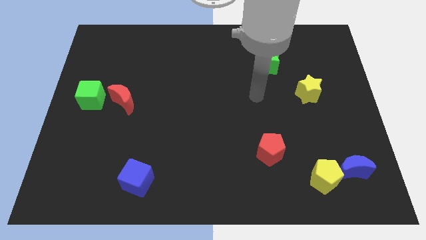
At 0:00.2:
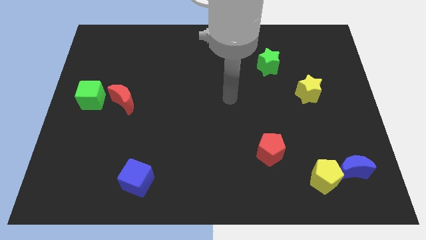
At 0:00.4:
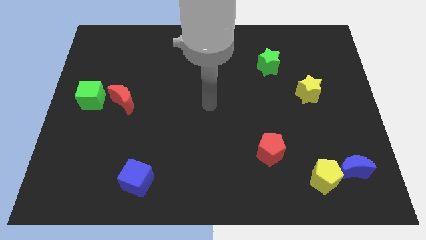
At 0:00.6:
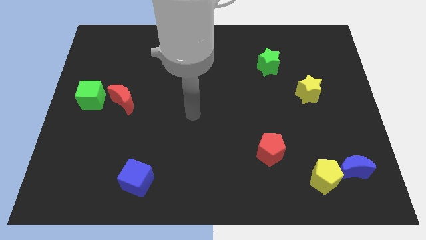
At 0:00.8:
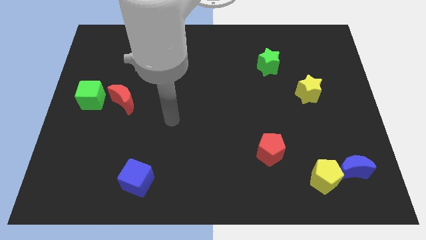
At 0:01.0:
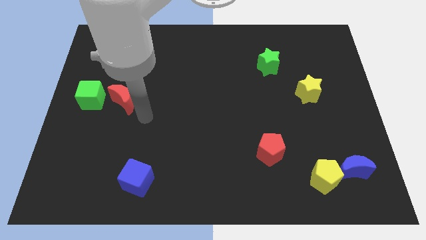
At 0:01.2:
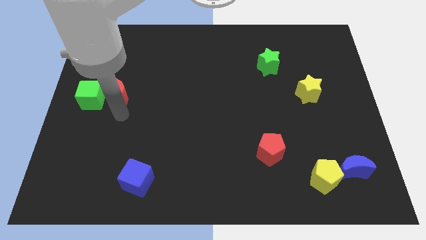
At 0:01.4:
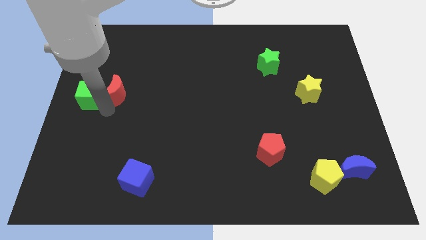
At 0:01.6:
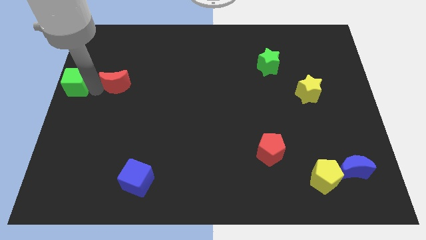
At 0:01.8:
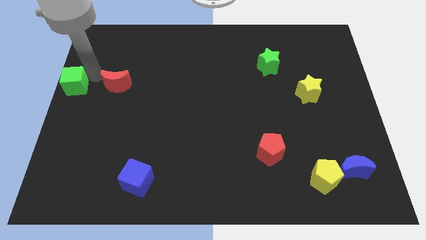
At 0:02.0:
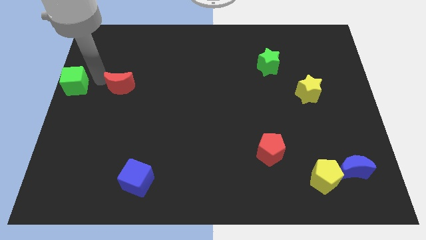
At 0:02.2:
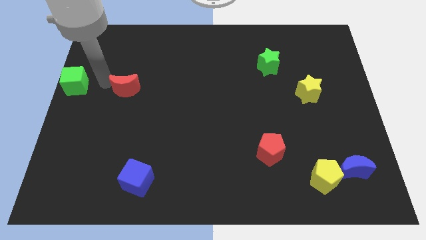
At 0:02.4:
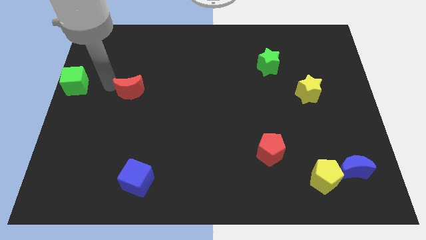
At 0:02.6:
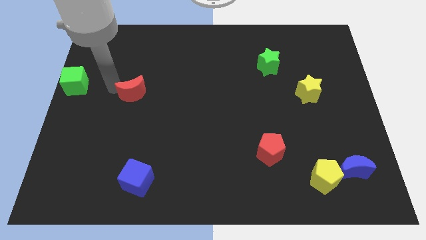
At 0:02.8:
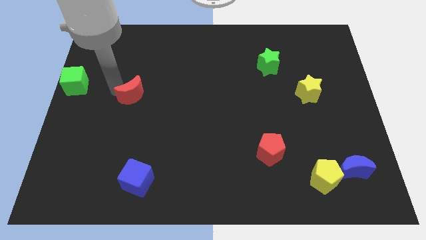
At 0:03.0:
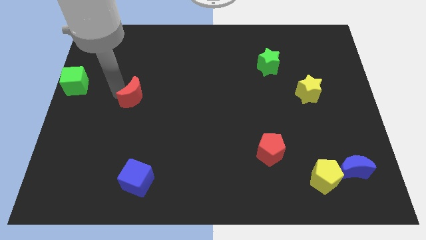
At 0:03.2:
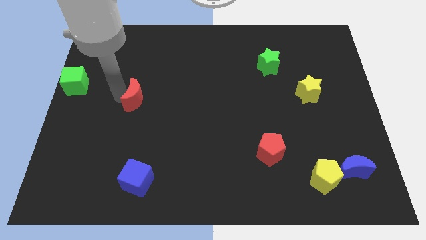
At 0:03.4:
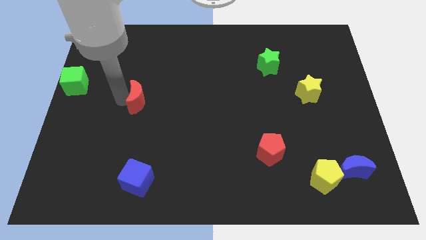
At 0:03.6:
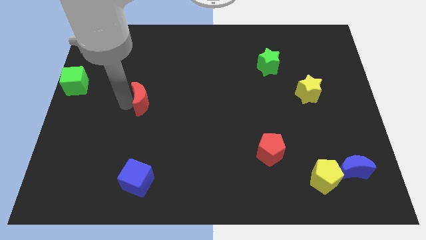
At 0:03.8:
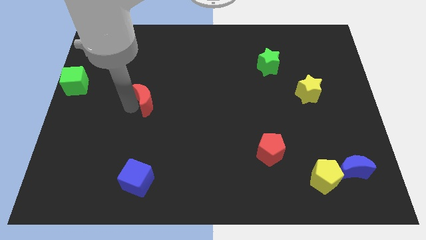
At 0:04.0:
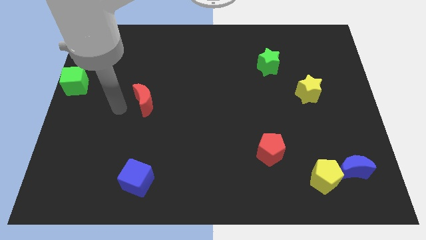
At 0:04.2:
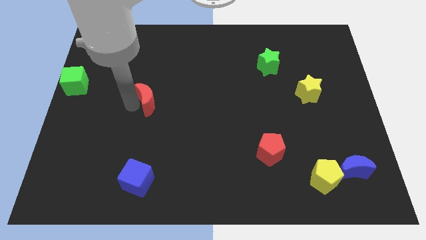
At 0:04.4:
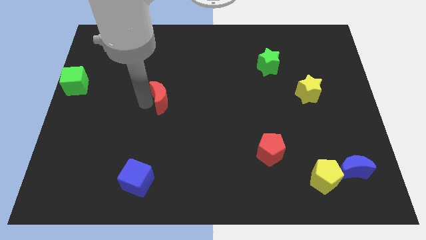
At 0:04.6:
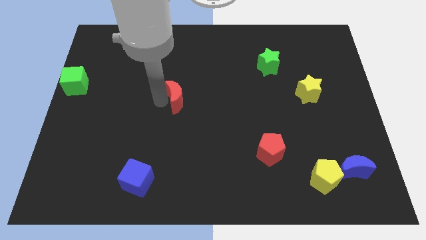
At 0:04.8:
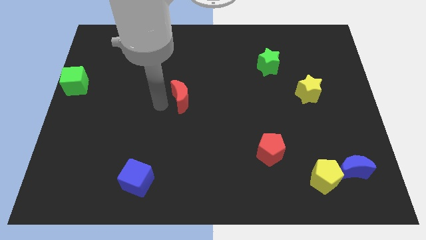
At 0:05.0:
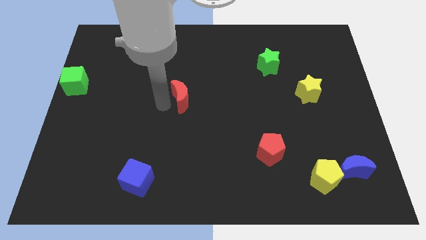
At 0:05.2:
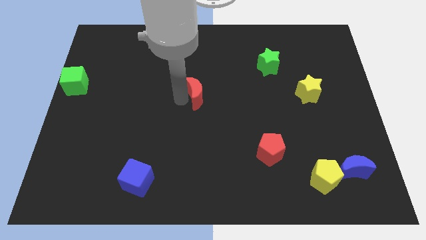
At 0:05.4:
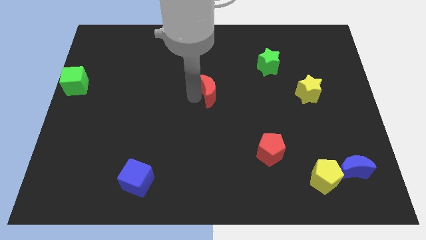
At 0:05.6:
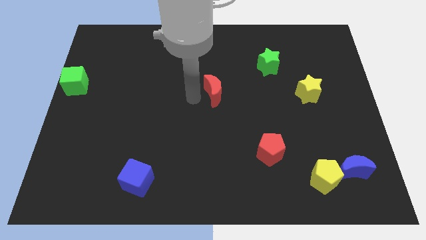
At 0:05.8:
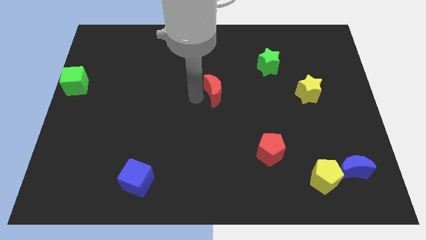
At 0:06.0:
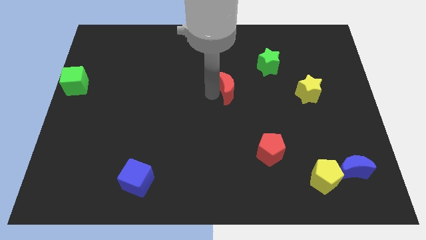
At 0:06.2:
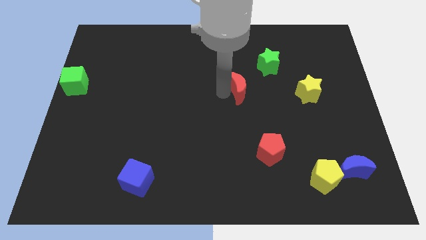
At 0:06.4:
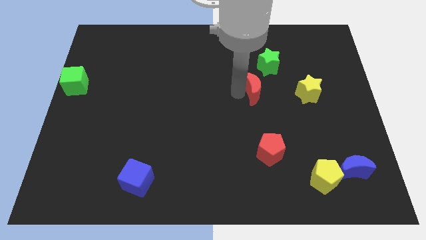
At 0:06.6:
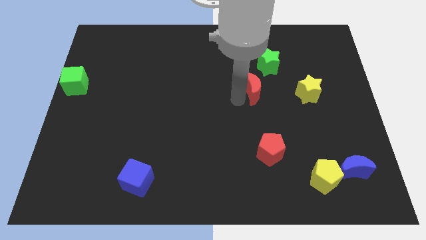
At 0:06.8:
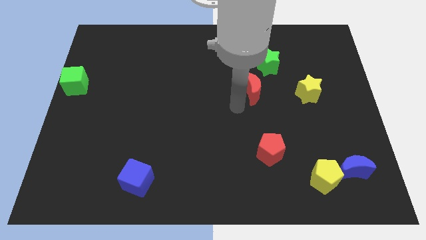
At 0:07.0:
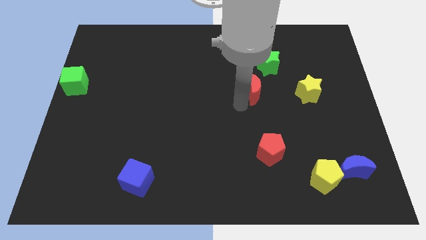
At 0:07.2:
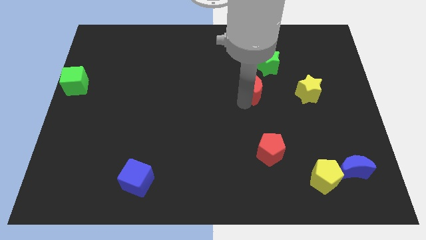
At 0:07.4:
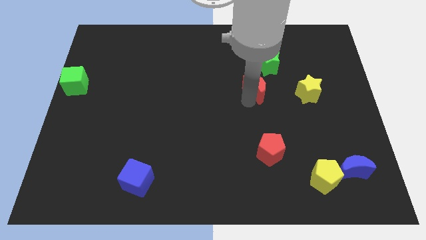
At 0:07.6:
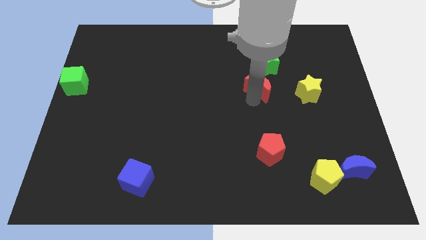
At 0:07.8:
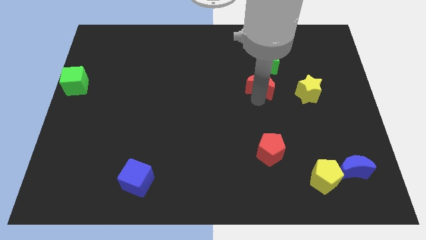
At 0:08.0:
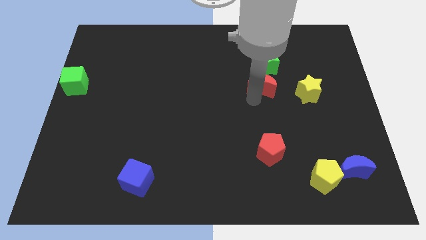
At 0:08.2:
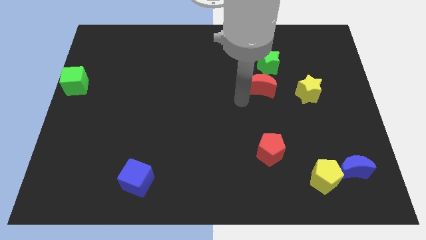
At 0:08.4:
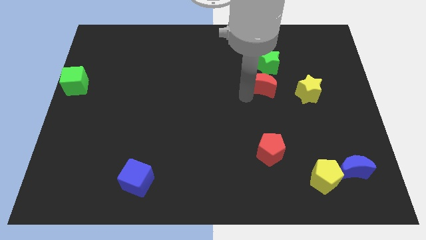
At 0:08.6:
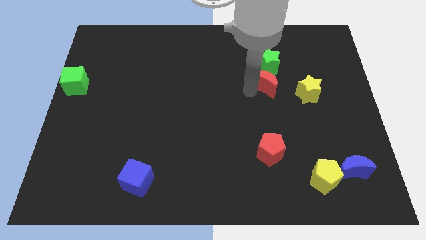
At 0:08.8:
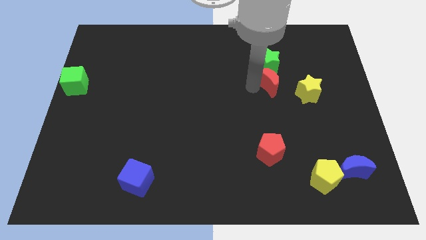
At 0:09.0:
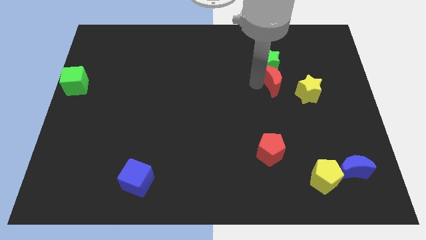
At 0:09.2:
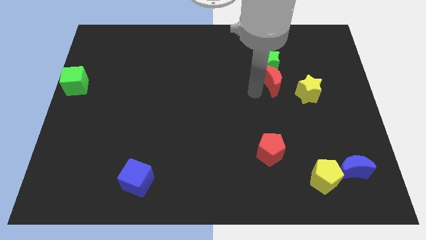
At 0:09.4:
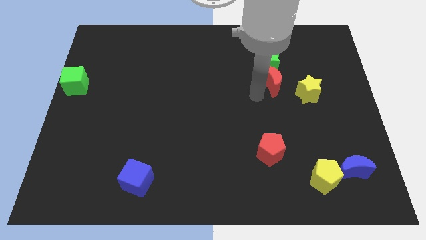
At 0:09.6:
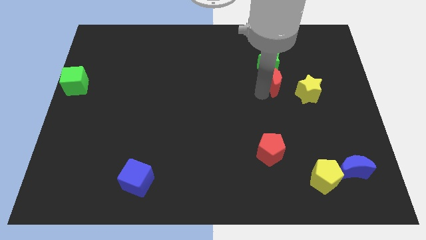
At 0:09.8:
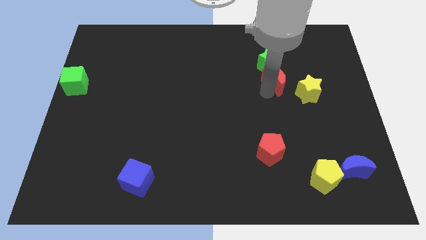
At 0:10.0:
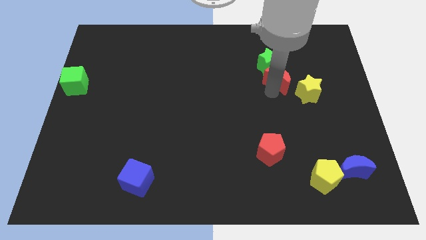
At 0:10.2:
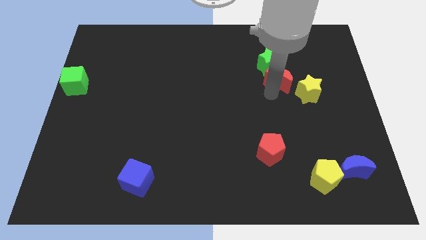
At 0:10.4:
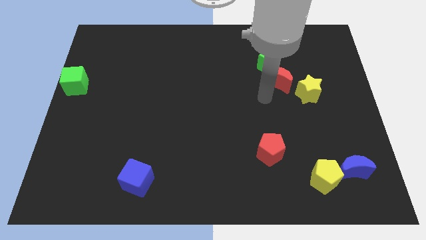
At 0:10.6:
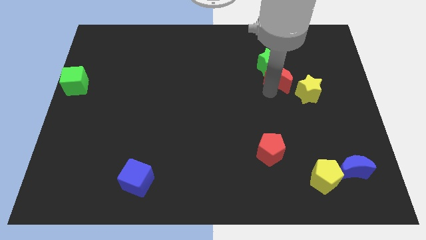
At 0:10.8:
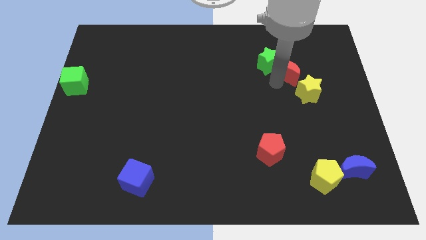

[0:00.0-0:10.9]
slide the red moon to the right side of the green star

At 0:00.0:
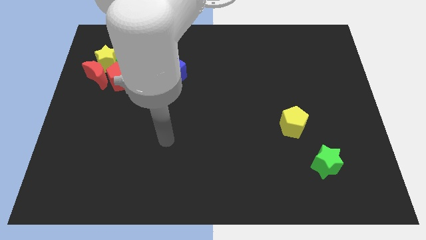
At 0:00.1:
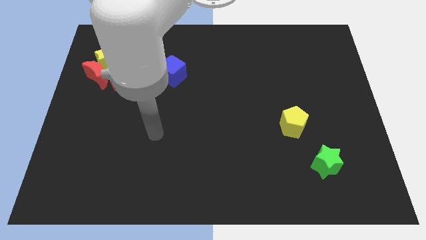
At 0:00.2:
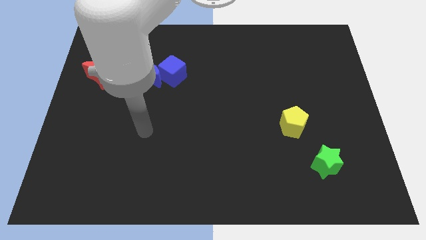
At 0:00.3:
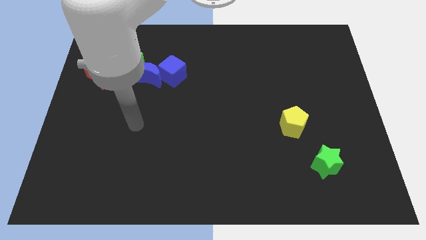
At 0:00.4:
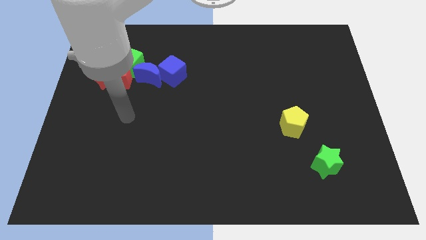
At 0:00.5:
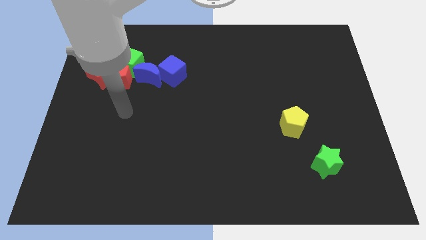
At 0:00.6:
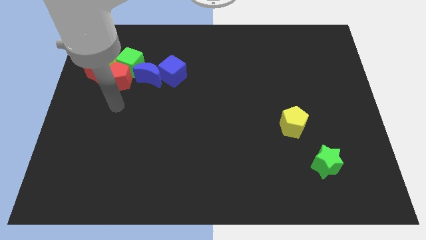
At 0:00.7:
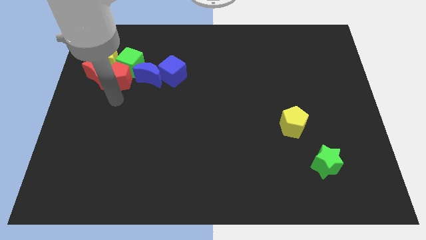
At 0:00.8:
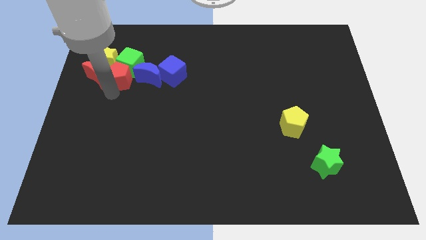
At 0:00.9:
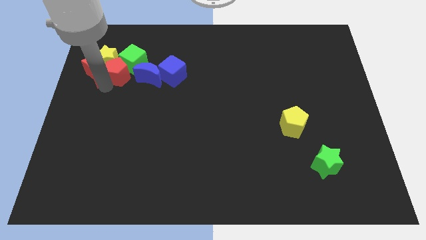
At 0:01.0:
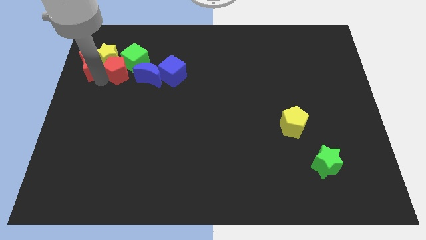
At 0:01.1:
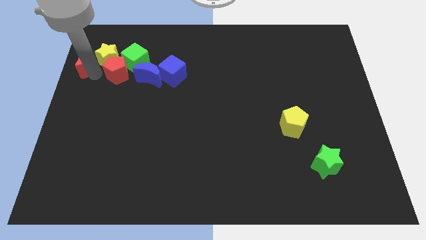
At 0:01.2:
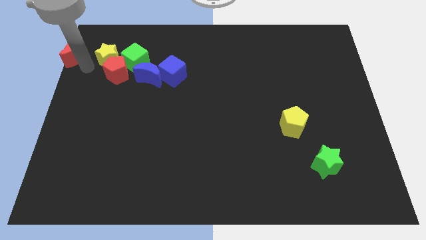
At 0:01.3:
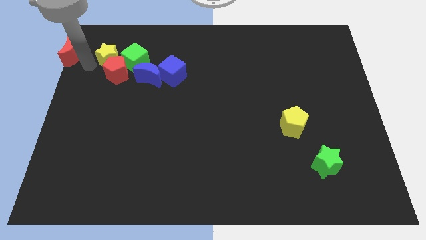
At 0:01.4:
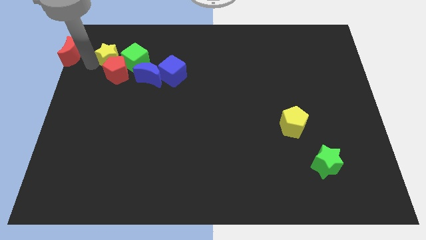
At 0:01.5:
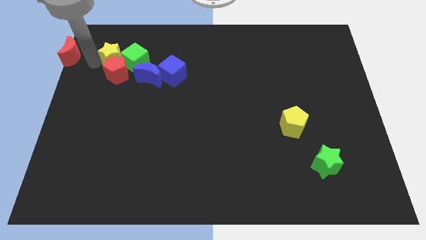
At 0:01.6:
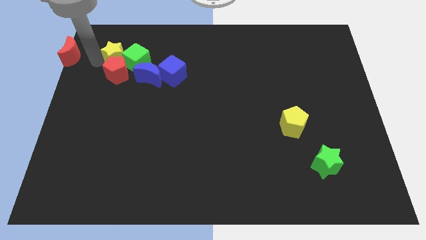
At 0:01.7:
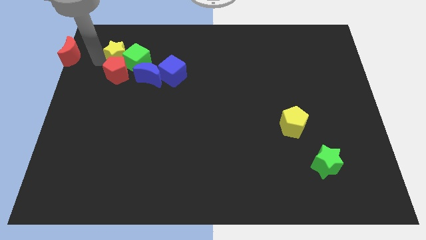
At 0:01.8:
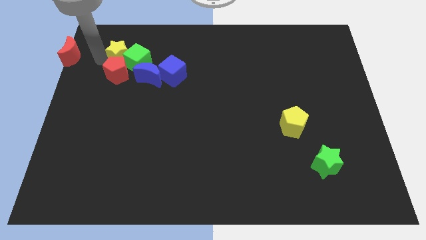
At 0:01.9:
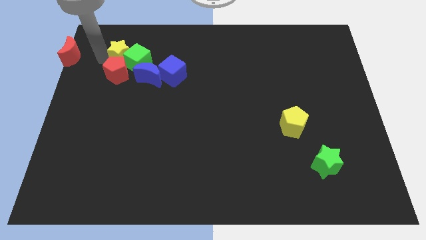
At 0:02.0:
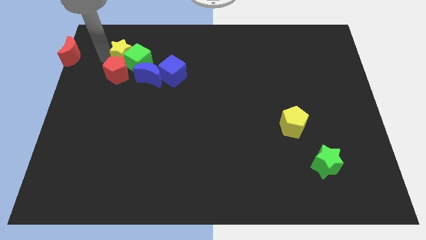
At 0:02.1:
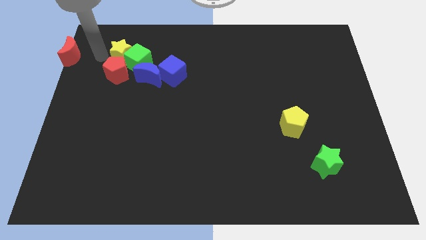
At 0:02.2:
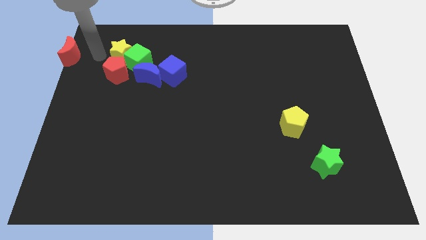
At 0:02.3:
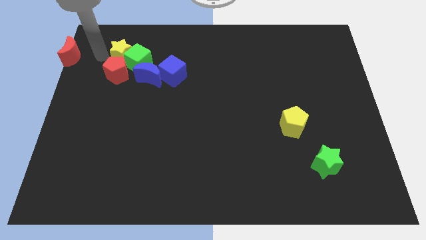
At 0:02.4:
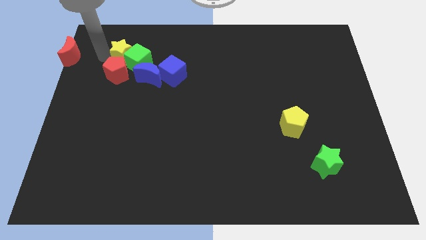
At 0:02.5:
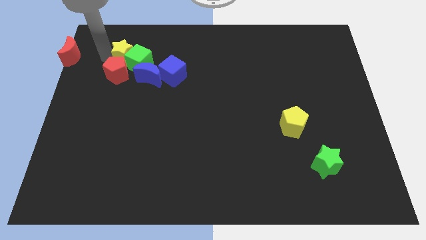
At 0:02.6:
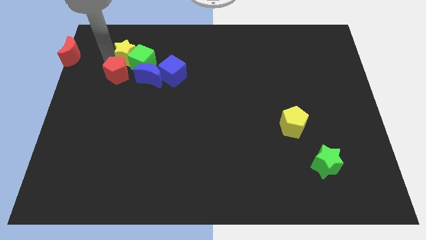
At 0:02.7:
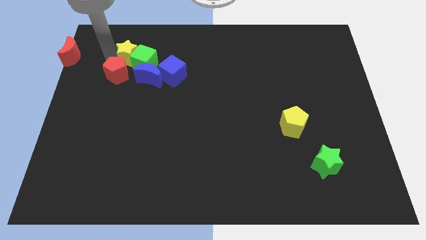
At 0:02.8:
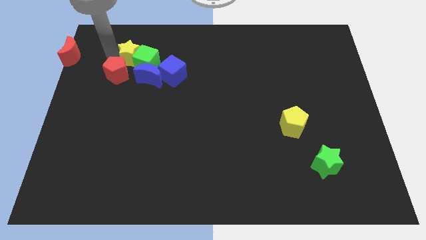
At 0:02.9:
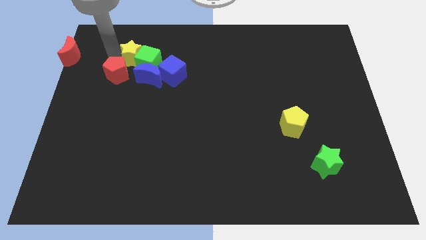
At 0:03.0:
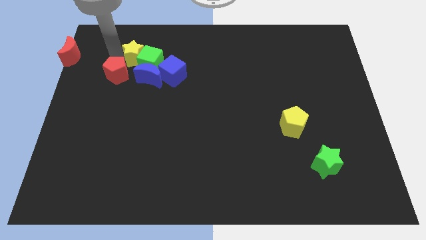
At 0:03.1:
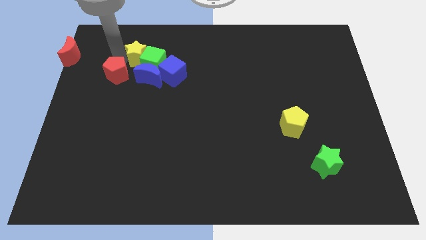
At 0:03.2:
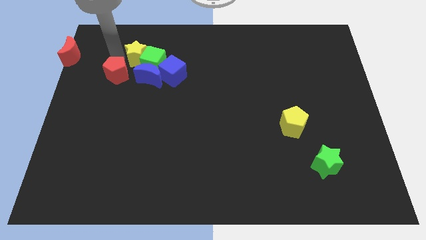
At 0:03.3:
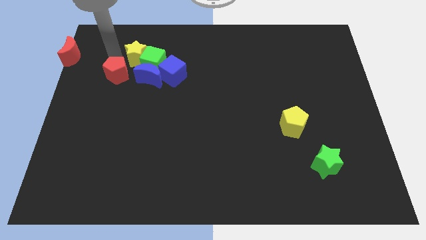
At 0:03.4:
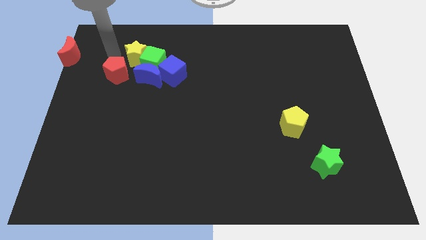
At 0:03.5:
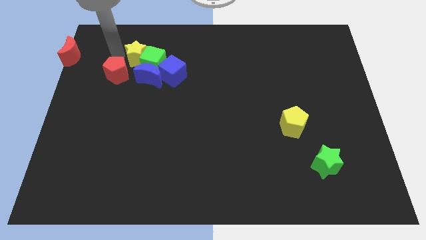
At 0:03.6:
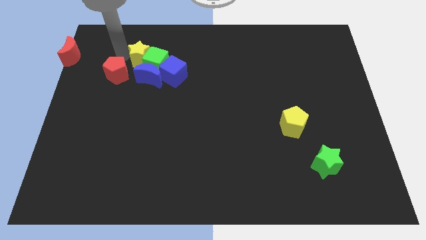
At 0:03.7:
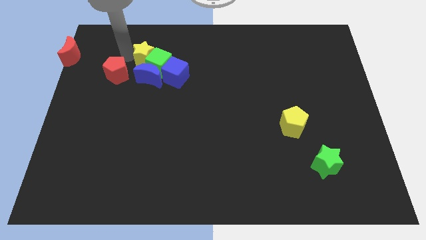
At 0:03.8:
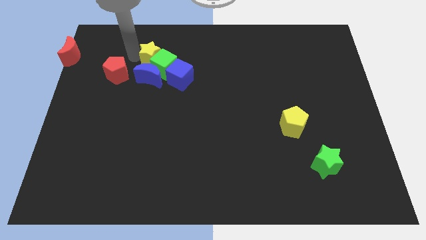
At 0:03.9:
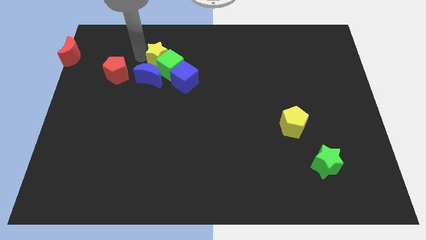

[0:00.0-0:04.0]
push the yellow star to the top right side of the blue moon
